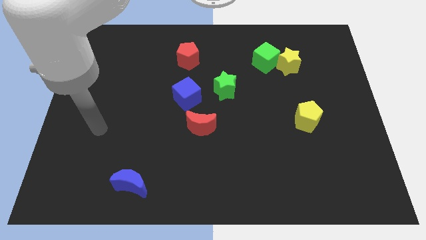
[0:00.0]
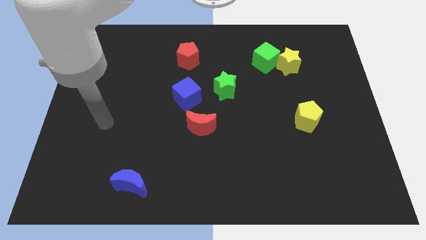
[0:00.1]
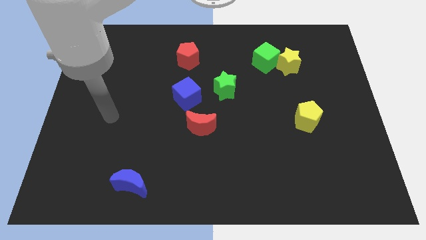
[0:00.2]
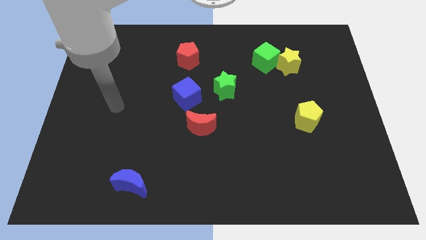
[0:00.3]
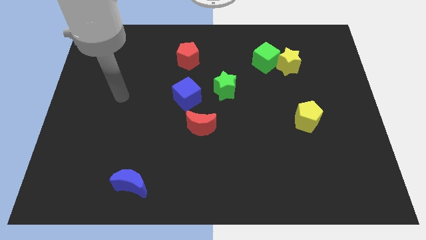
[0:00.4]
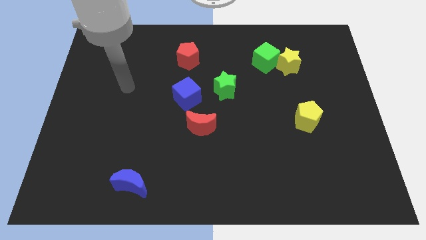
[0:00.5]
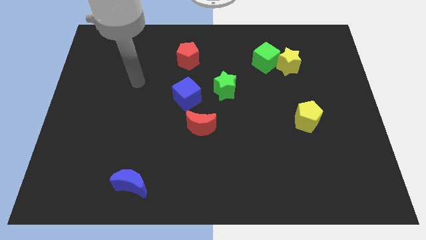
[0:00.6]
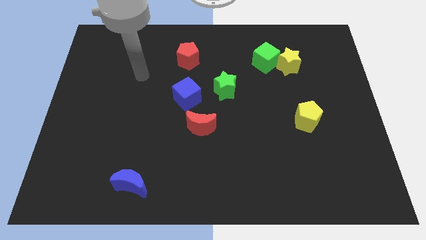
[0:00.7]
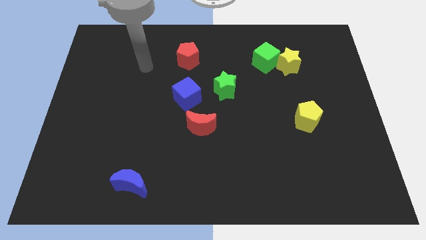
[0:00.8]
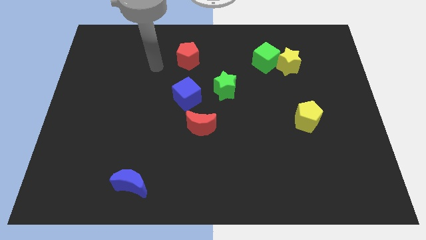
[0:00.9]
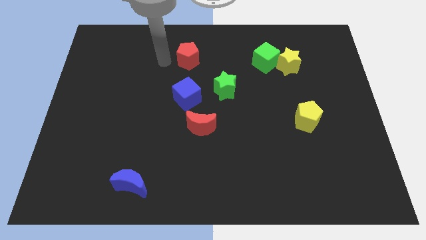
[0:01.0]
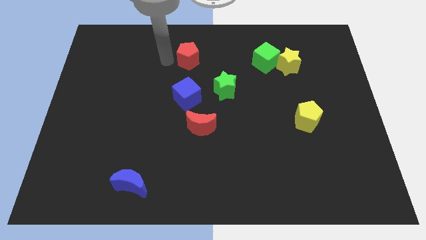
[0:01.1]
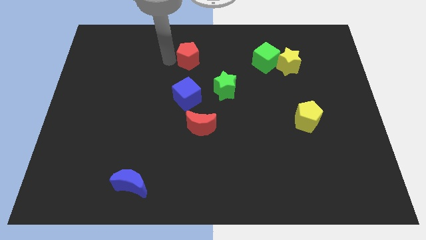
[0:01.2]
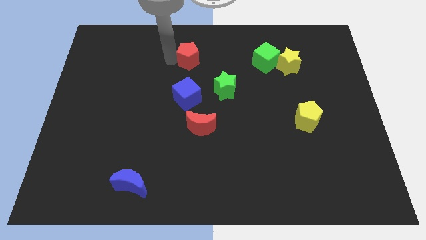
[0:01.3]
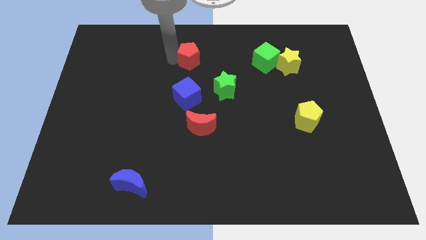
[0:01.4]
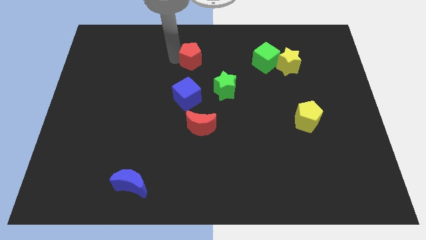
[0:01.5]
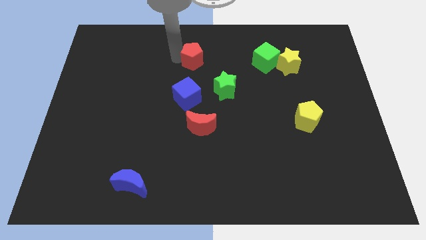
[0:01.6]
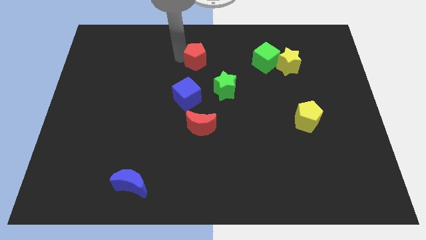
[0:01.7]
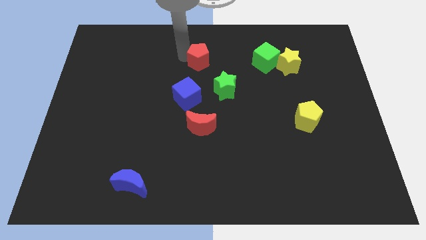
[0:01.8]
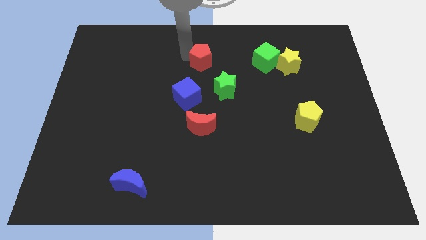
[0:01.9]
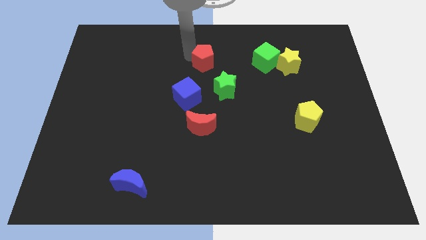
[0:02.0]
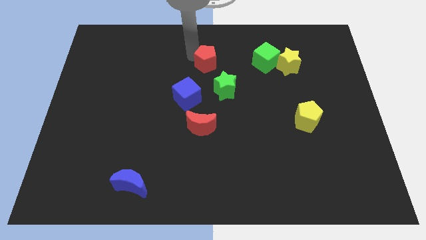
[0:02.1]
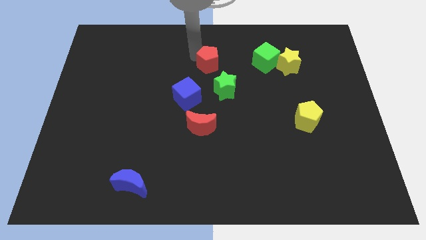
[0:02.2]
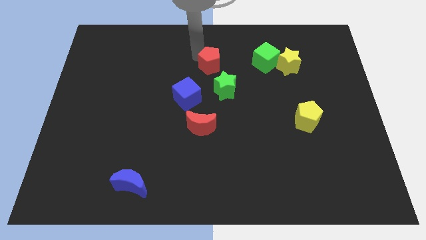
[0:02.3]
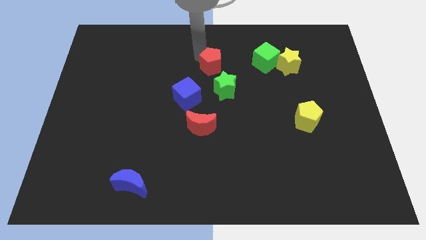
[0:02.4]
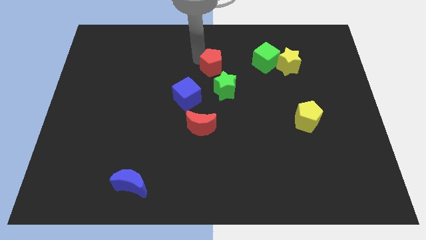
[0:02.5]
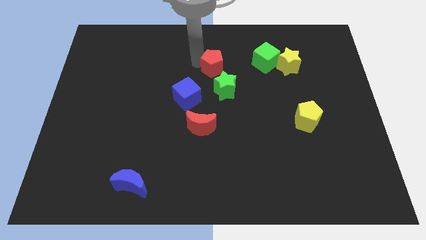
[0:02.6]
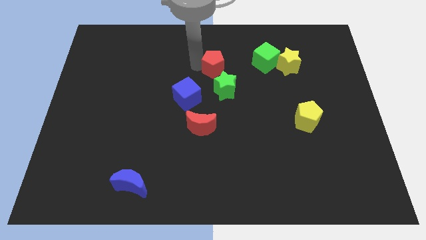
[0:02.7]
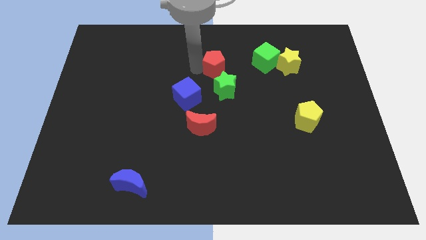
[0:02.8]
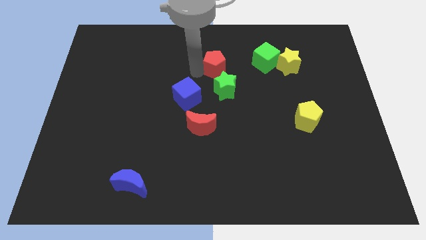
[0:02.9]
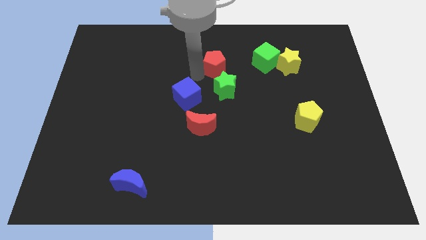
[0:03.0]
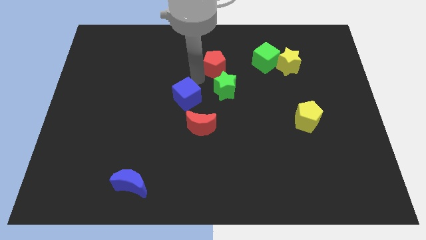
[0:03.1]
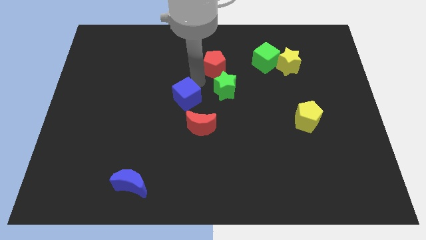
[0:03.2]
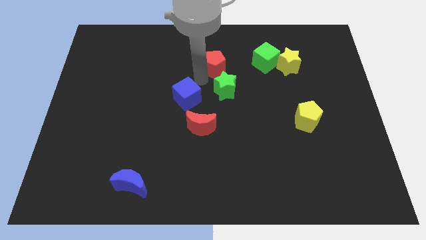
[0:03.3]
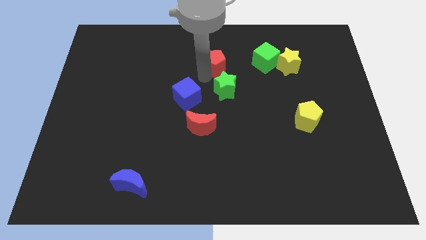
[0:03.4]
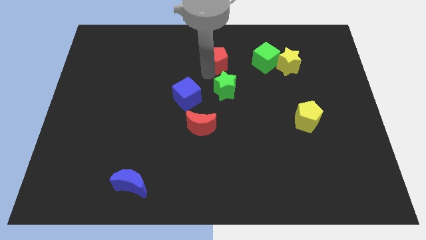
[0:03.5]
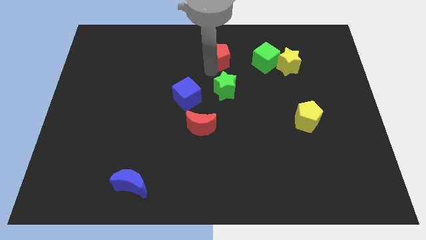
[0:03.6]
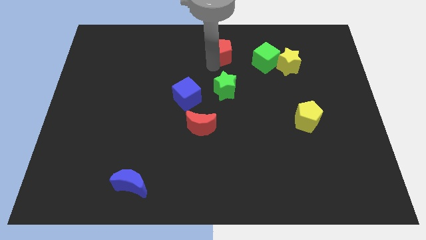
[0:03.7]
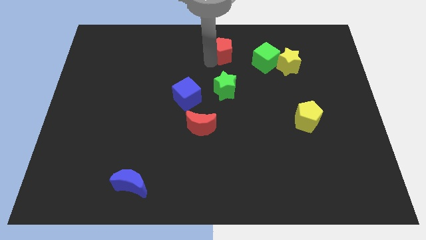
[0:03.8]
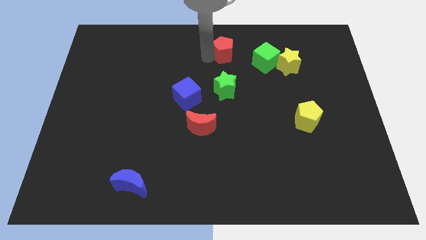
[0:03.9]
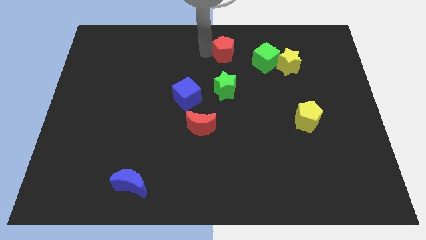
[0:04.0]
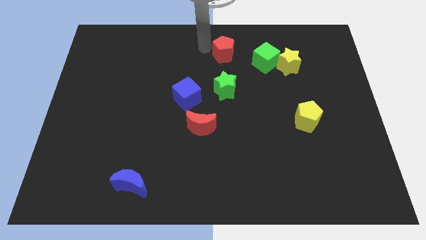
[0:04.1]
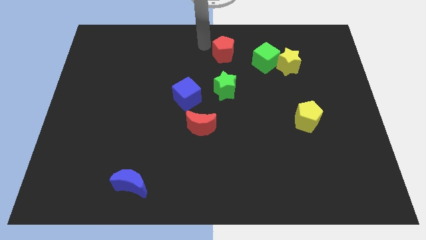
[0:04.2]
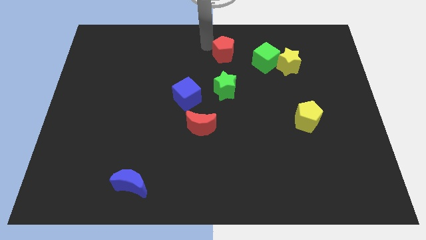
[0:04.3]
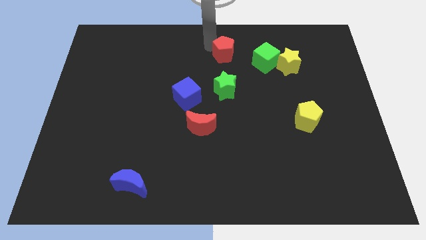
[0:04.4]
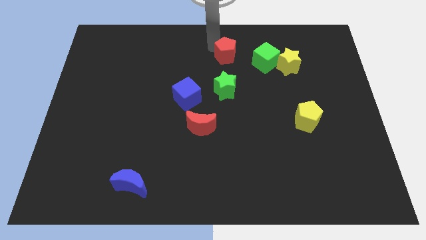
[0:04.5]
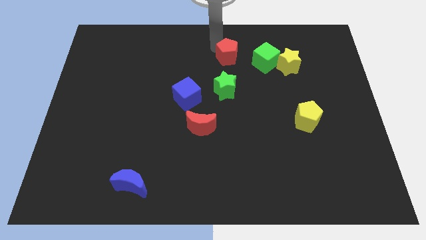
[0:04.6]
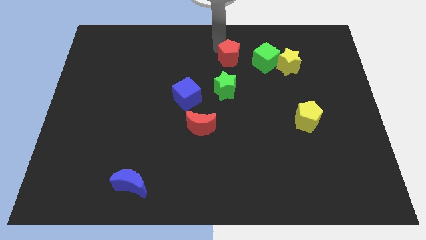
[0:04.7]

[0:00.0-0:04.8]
push the red pentagon left of the yellow star

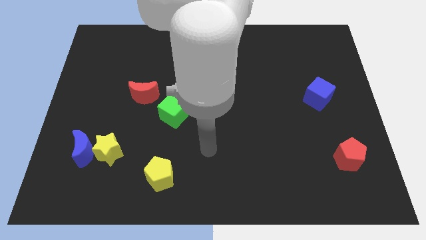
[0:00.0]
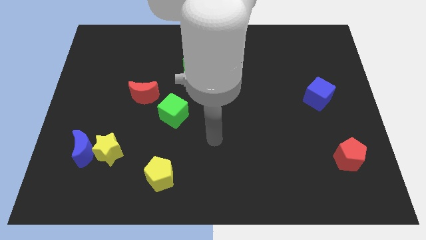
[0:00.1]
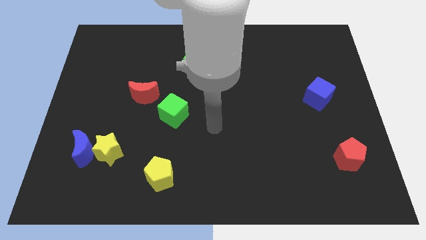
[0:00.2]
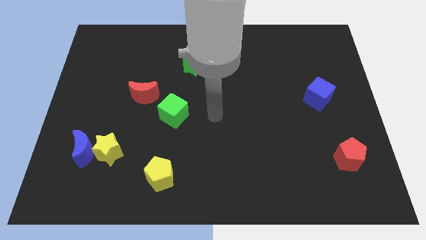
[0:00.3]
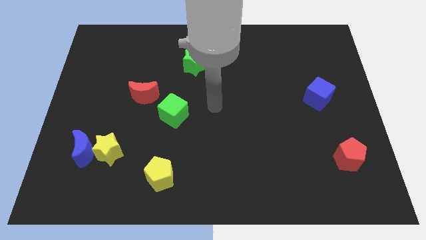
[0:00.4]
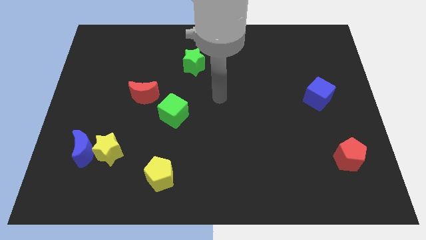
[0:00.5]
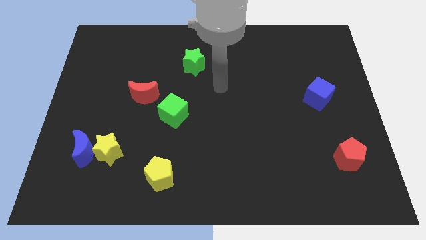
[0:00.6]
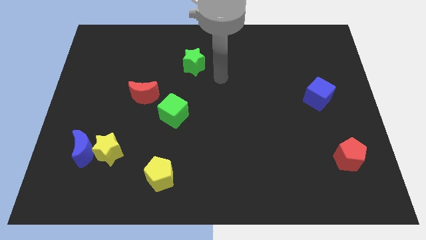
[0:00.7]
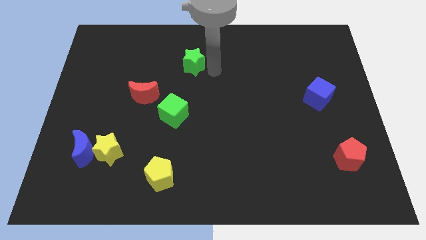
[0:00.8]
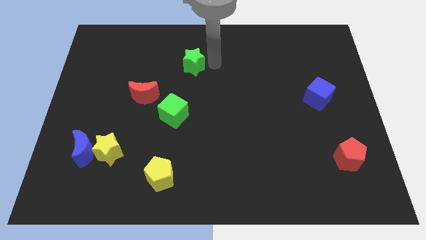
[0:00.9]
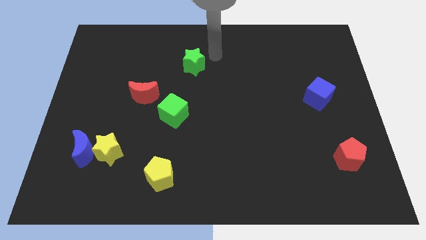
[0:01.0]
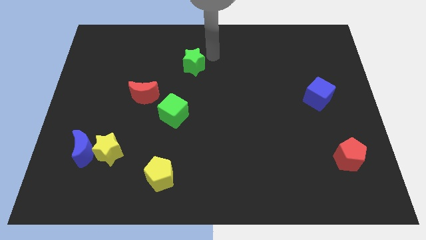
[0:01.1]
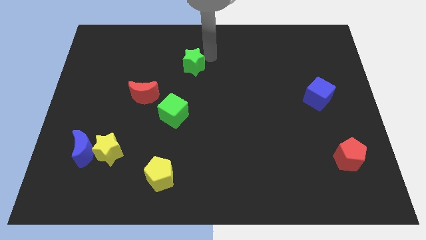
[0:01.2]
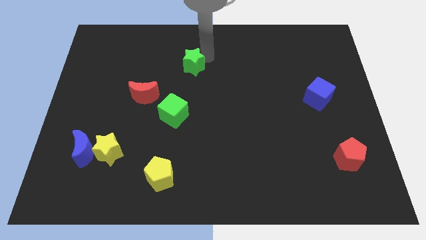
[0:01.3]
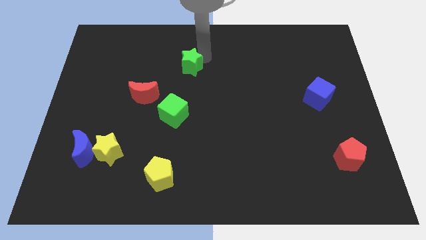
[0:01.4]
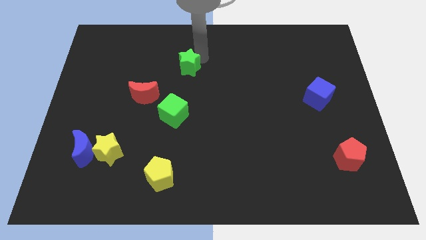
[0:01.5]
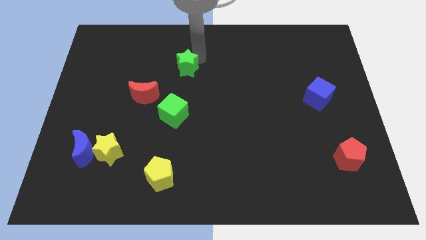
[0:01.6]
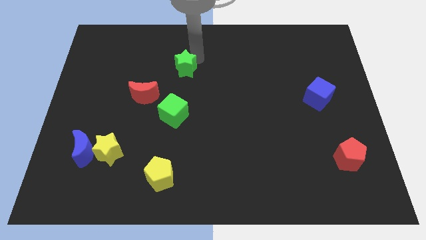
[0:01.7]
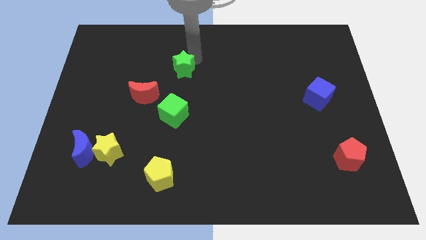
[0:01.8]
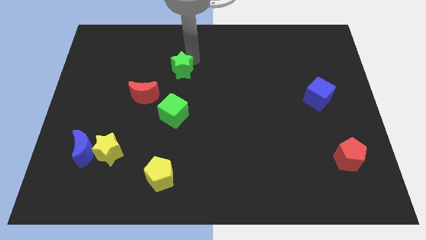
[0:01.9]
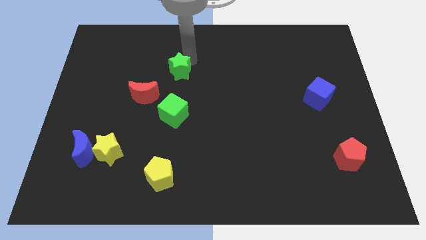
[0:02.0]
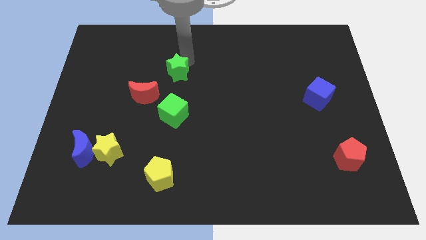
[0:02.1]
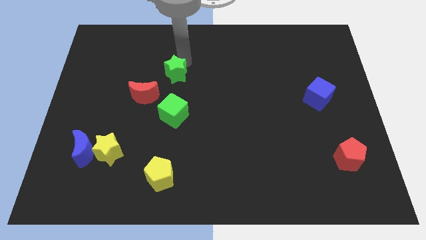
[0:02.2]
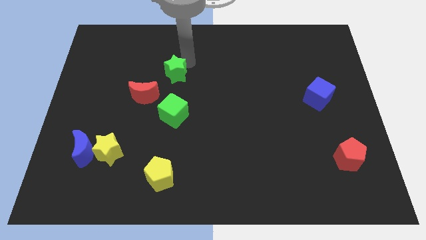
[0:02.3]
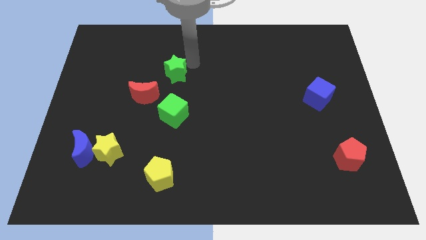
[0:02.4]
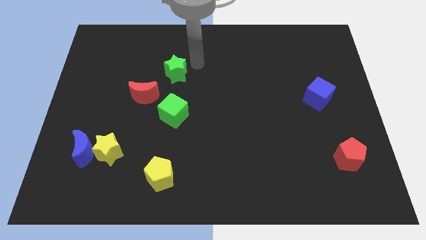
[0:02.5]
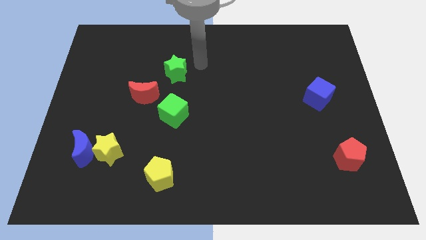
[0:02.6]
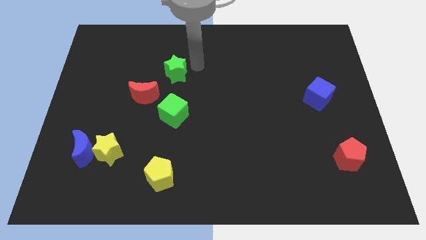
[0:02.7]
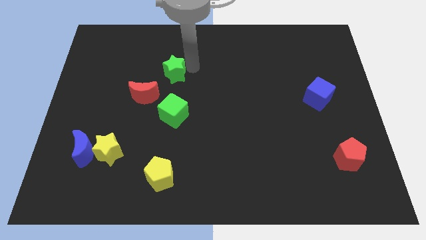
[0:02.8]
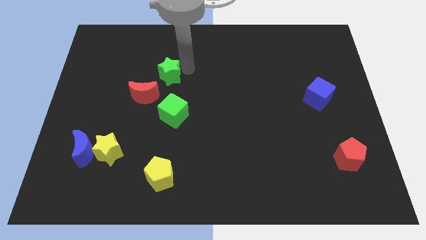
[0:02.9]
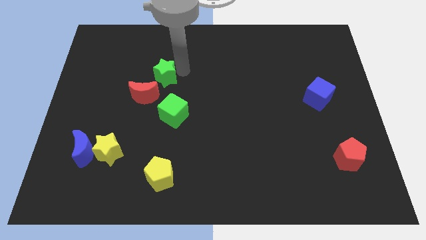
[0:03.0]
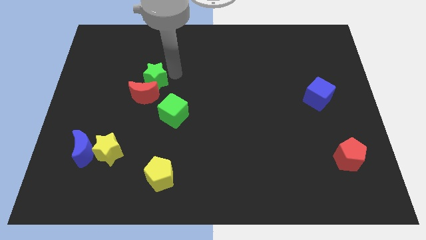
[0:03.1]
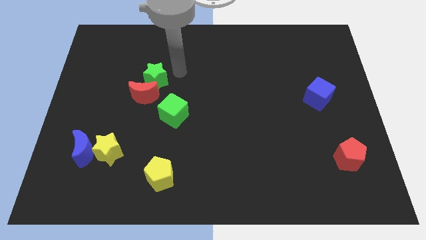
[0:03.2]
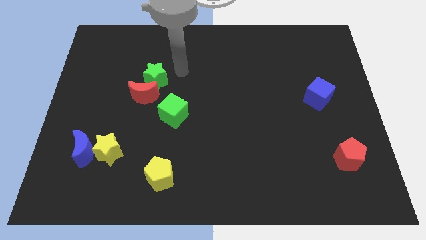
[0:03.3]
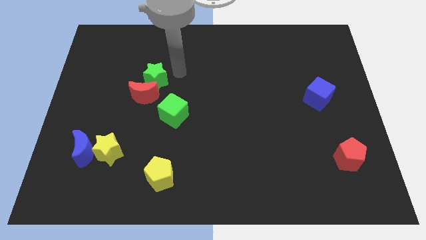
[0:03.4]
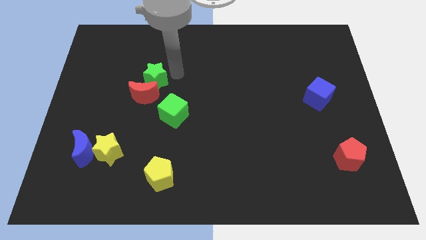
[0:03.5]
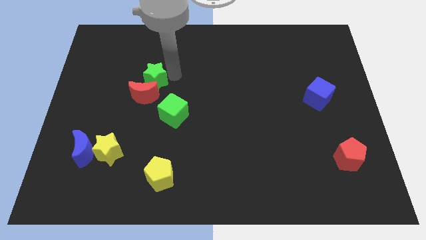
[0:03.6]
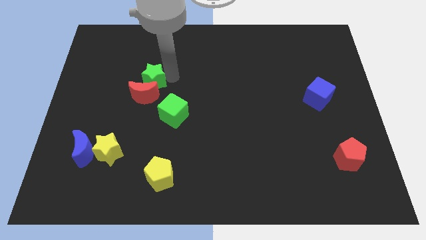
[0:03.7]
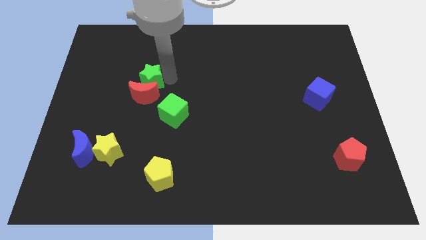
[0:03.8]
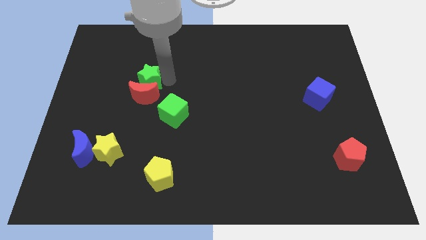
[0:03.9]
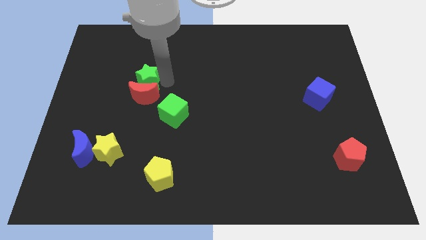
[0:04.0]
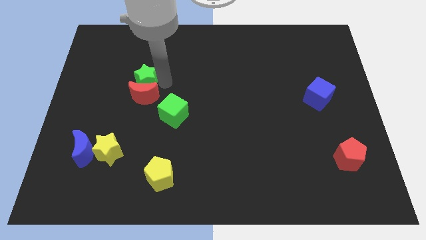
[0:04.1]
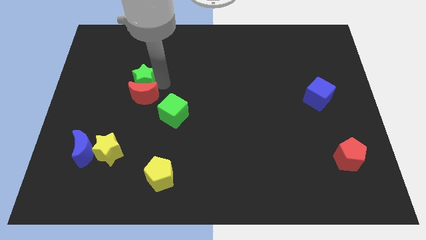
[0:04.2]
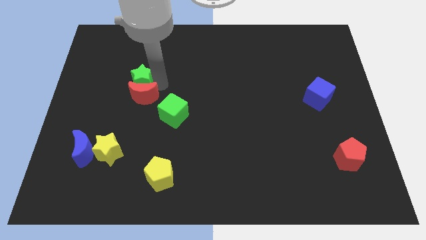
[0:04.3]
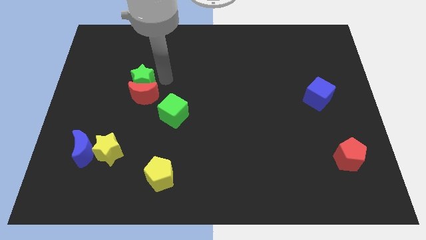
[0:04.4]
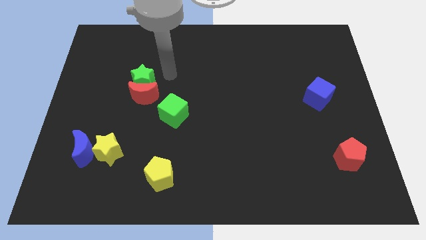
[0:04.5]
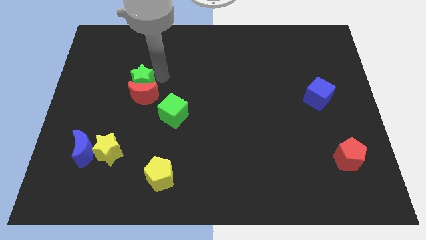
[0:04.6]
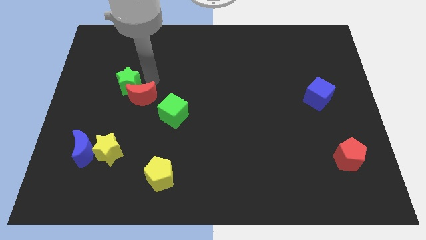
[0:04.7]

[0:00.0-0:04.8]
move the green star to the left of the red moon
